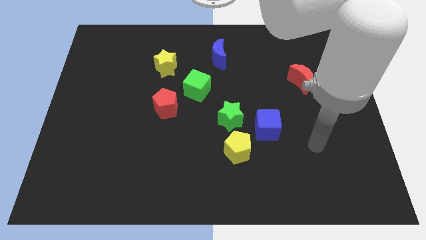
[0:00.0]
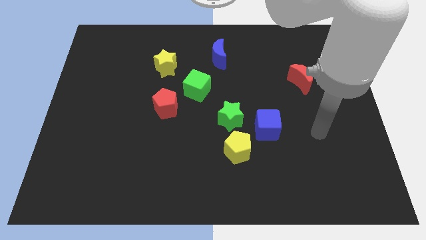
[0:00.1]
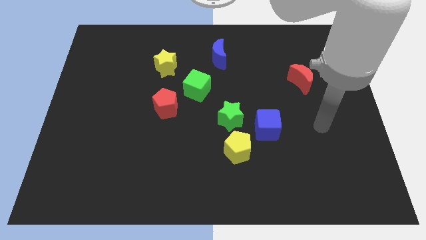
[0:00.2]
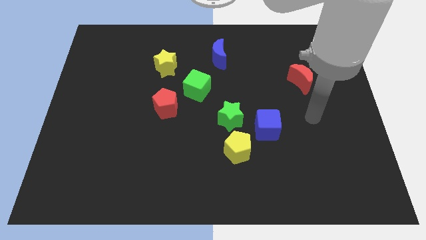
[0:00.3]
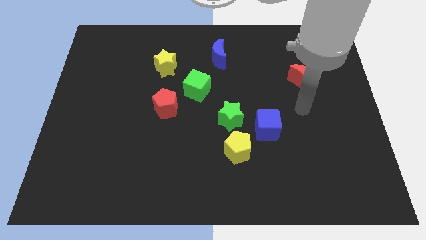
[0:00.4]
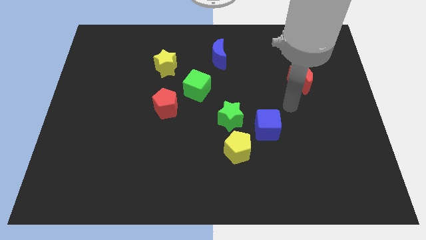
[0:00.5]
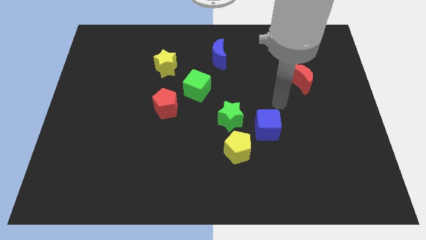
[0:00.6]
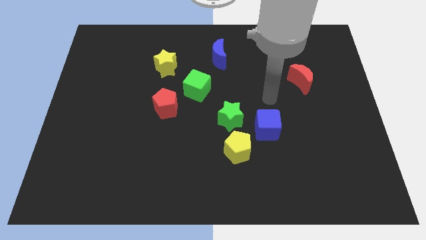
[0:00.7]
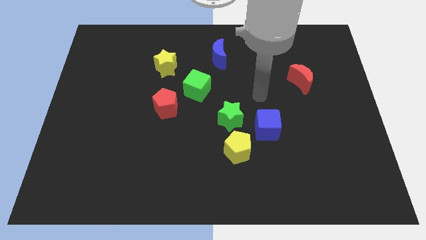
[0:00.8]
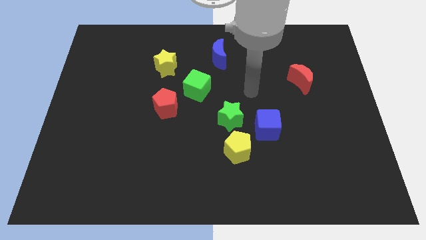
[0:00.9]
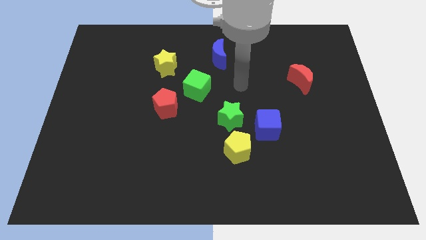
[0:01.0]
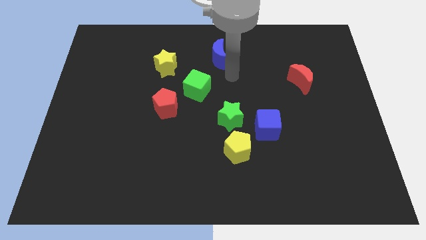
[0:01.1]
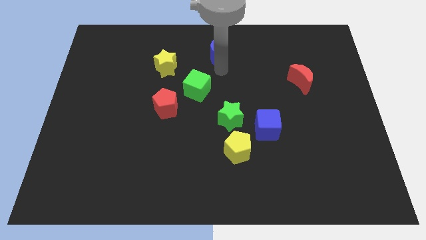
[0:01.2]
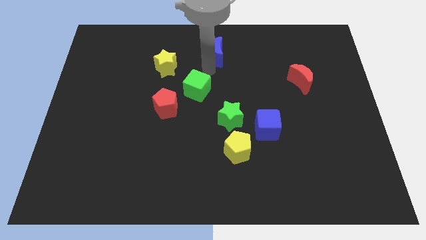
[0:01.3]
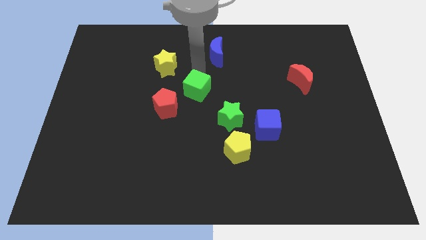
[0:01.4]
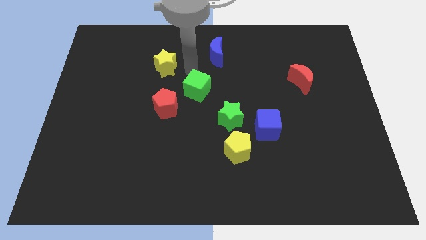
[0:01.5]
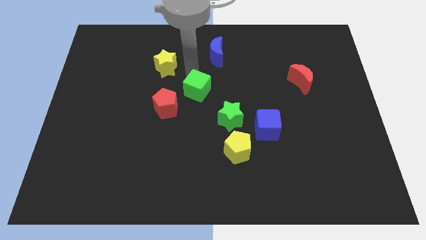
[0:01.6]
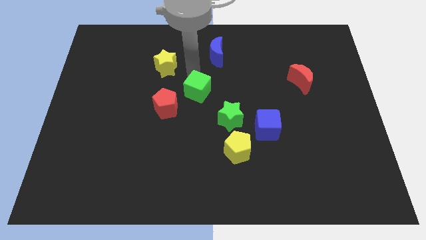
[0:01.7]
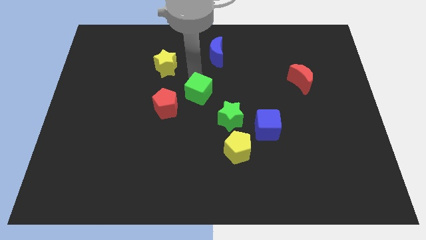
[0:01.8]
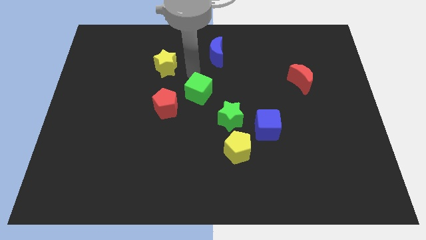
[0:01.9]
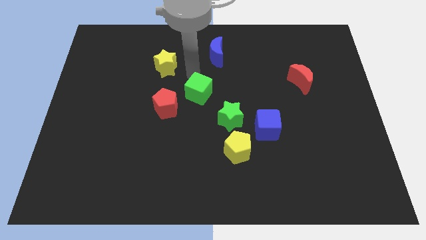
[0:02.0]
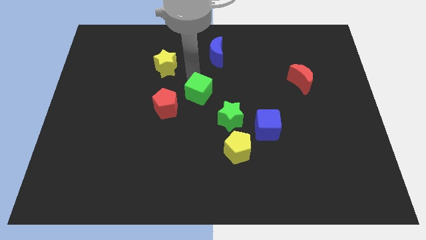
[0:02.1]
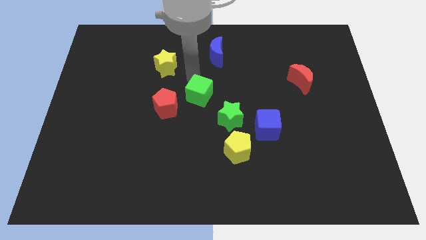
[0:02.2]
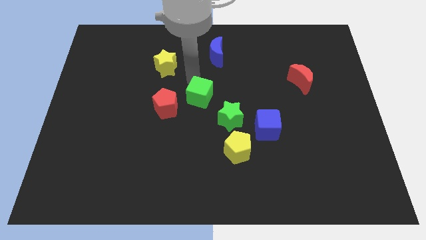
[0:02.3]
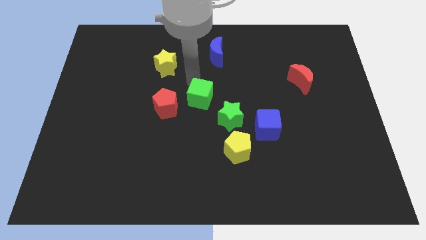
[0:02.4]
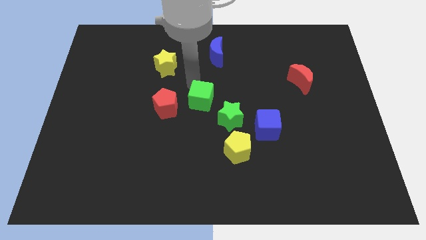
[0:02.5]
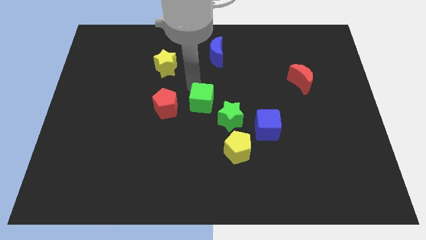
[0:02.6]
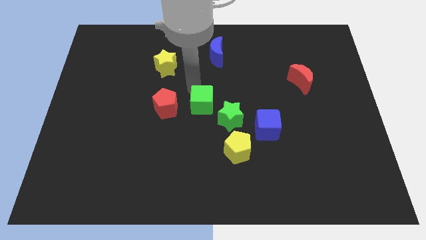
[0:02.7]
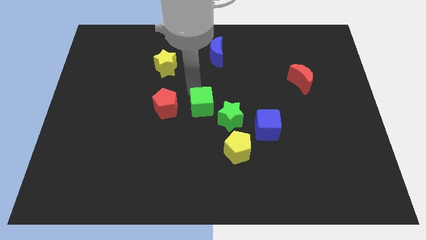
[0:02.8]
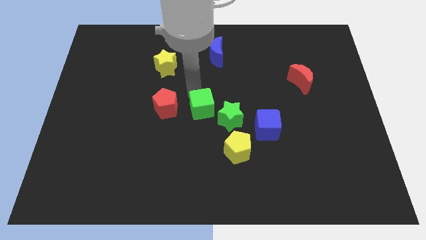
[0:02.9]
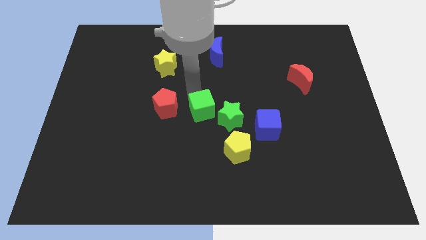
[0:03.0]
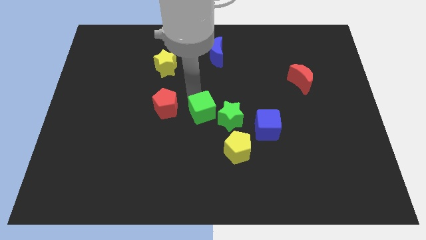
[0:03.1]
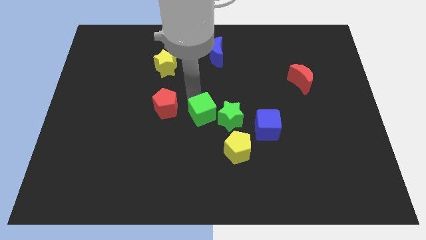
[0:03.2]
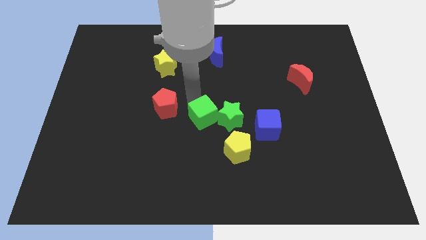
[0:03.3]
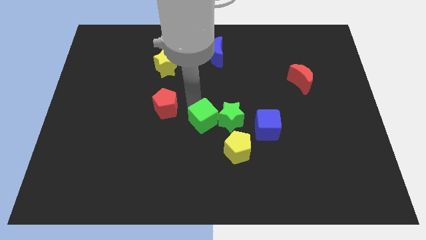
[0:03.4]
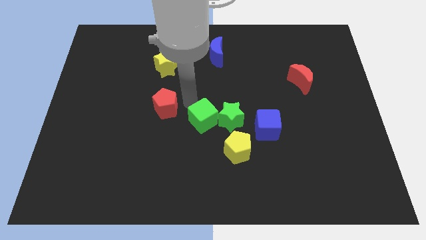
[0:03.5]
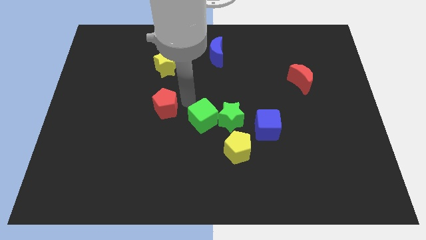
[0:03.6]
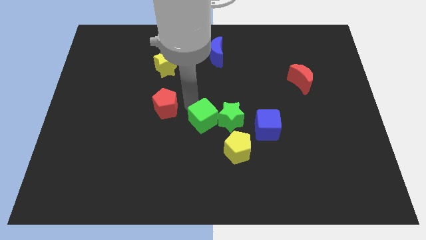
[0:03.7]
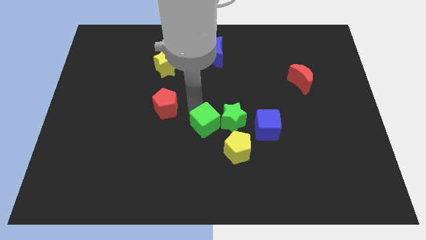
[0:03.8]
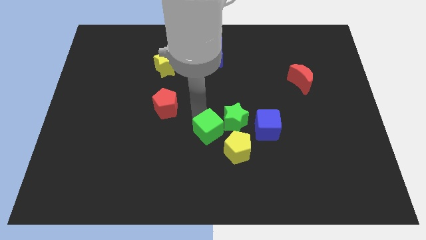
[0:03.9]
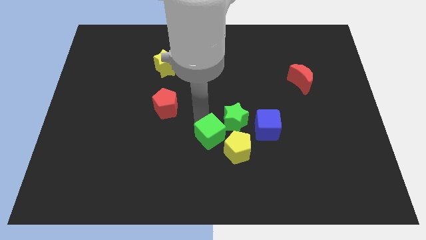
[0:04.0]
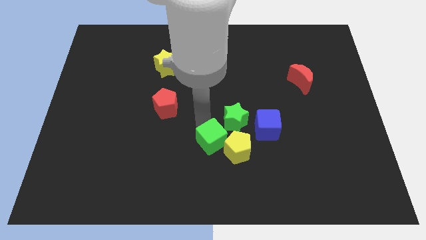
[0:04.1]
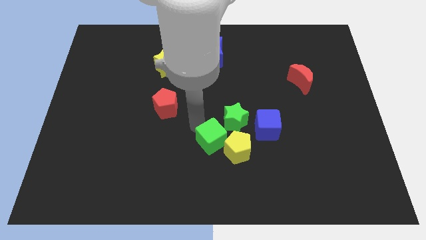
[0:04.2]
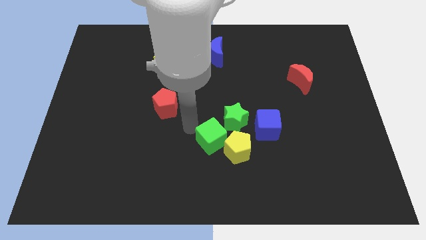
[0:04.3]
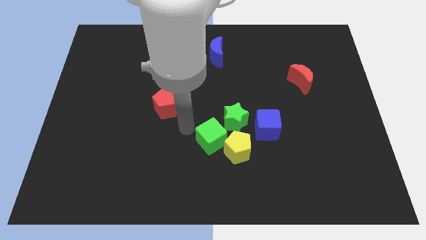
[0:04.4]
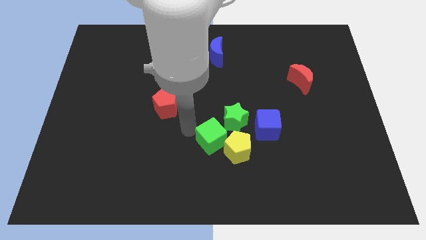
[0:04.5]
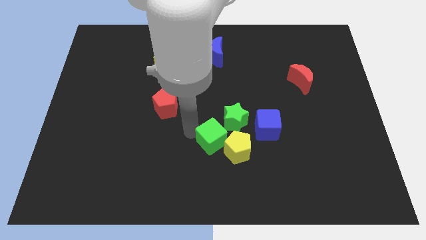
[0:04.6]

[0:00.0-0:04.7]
move the green cube to the yellow pentagon

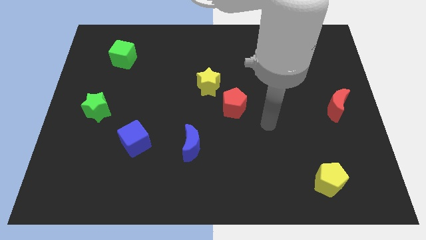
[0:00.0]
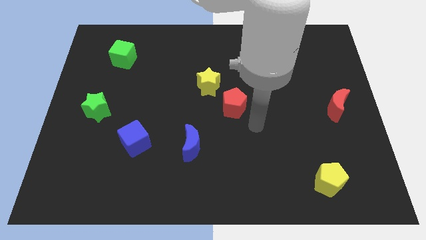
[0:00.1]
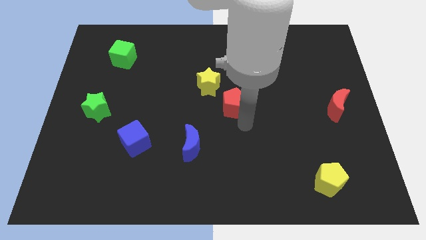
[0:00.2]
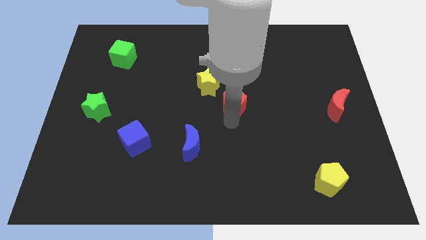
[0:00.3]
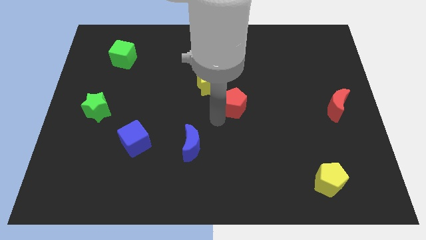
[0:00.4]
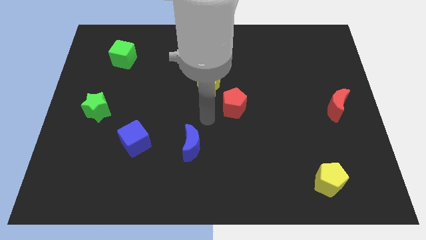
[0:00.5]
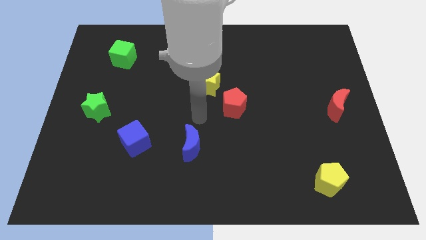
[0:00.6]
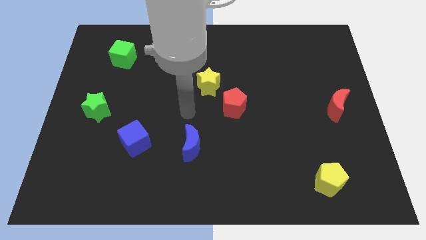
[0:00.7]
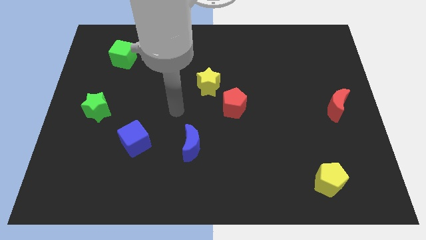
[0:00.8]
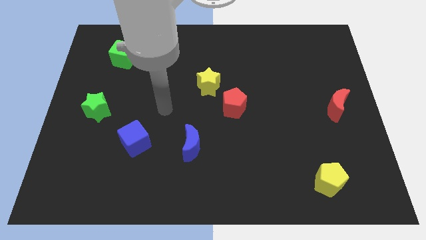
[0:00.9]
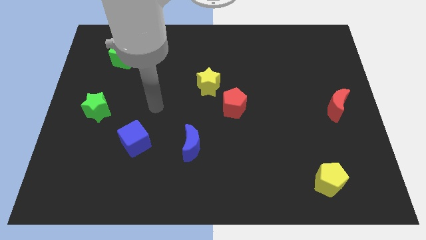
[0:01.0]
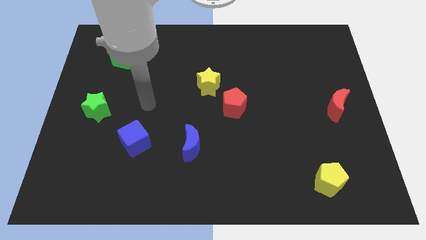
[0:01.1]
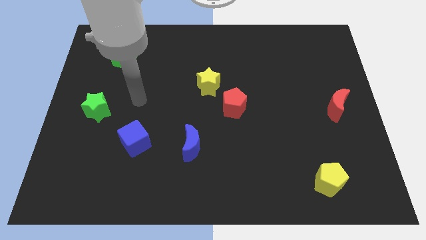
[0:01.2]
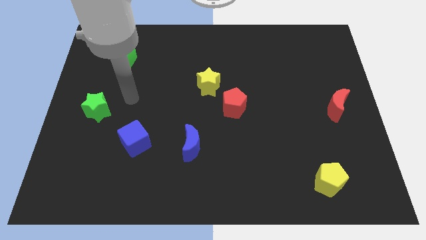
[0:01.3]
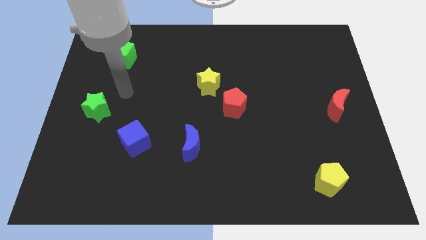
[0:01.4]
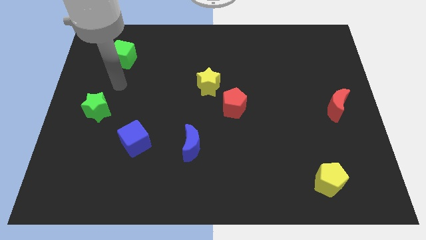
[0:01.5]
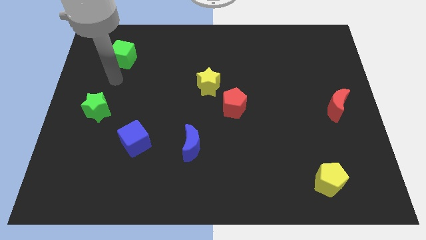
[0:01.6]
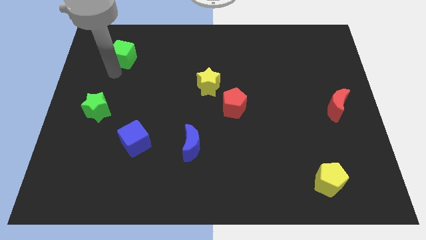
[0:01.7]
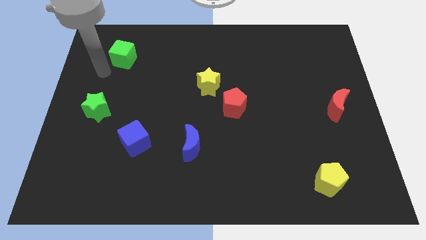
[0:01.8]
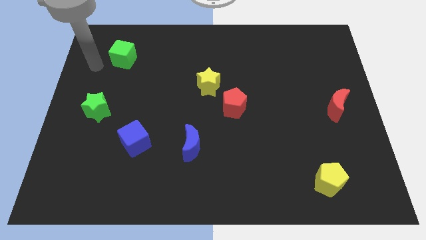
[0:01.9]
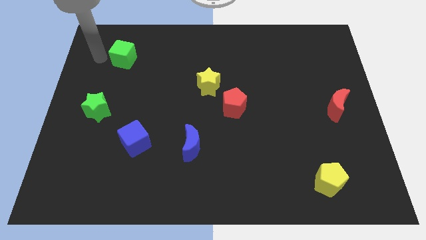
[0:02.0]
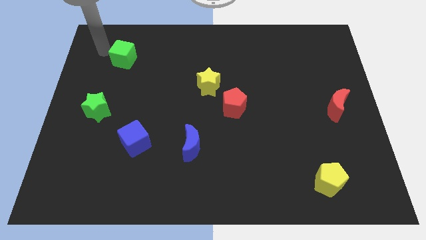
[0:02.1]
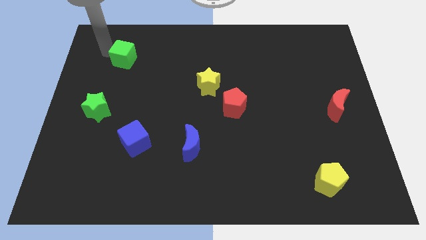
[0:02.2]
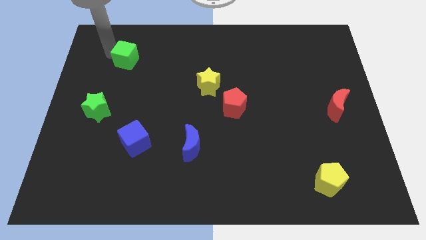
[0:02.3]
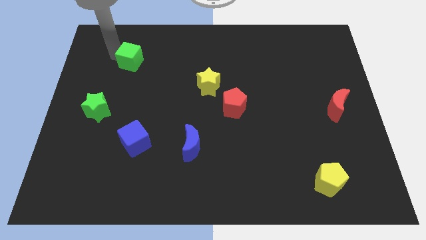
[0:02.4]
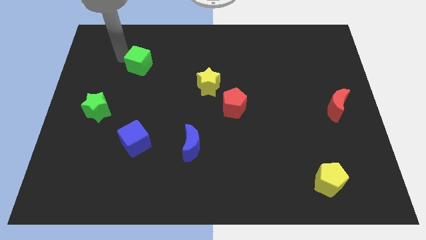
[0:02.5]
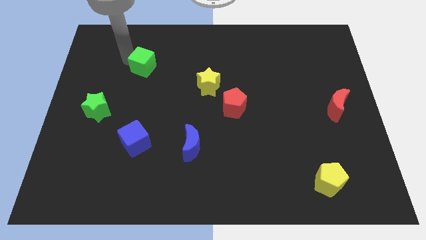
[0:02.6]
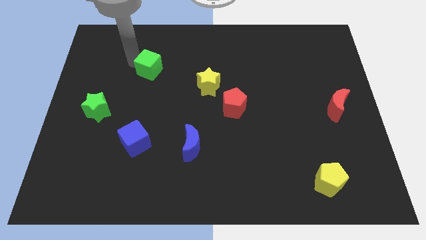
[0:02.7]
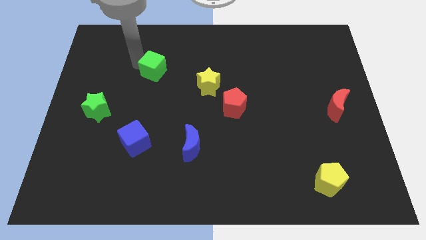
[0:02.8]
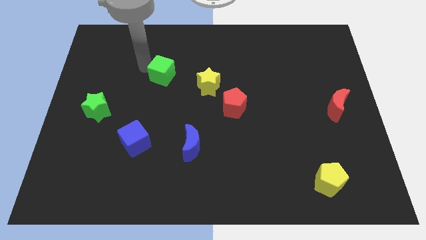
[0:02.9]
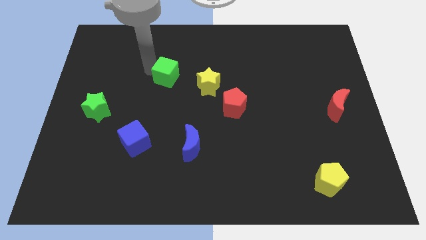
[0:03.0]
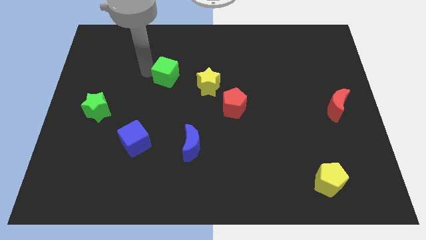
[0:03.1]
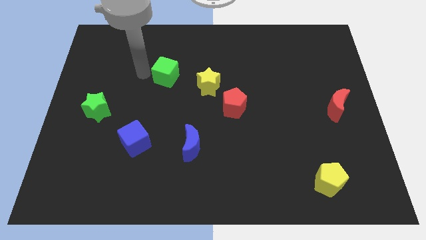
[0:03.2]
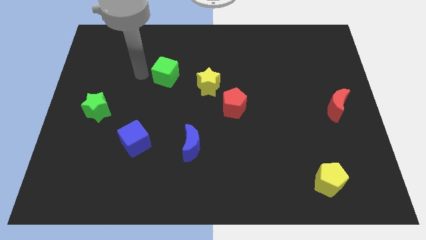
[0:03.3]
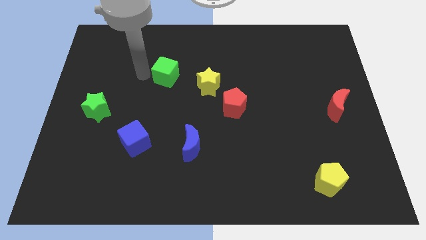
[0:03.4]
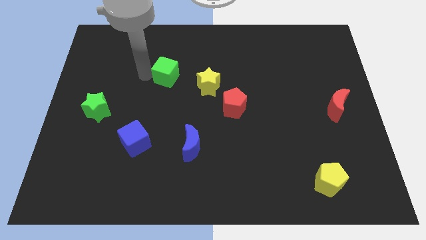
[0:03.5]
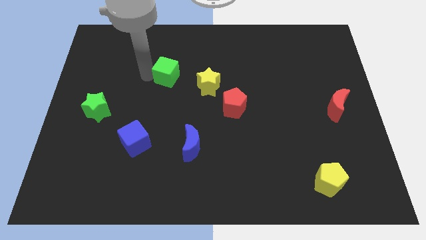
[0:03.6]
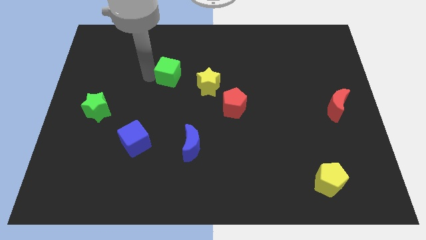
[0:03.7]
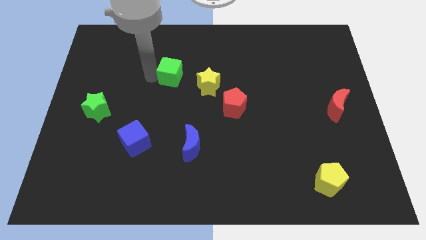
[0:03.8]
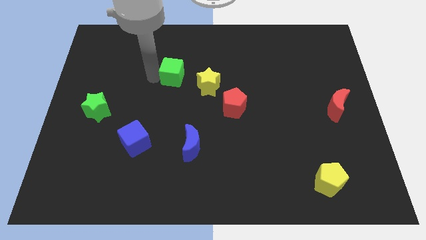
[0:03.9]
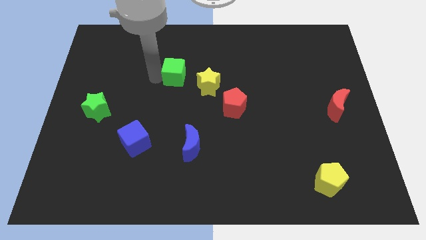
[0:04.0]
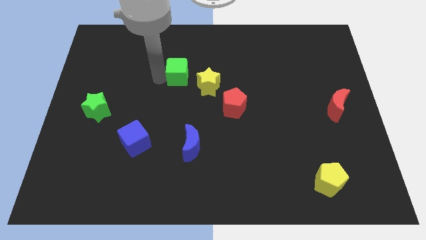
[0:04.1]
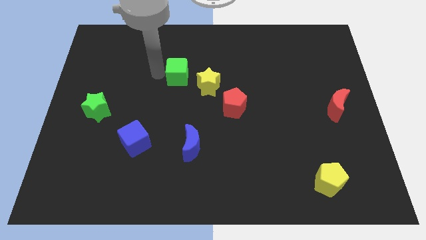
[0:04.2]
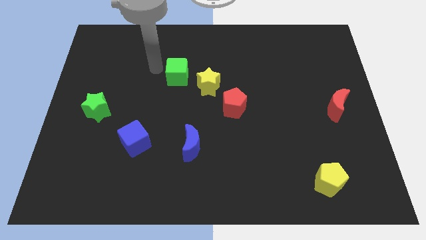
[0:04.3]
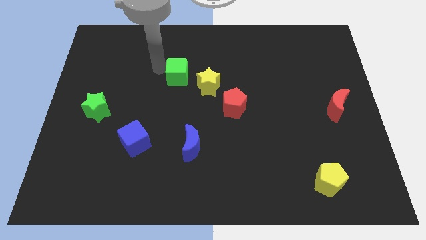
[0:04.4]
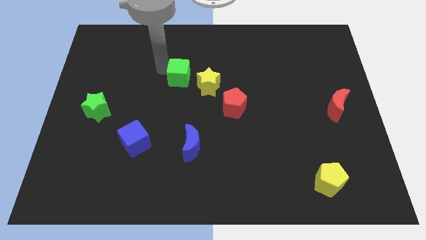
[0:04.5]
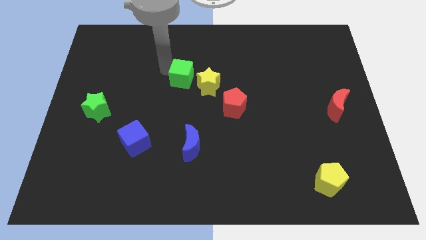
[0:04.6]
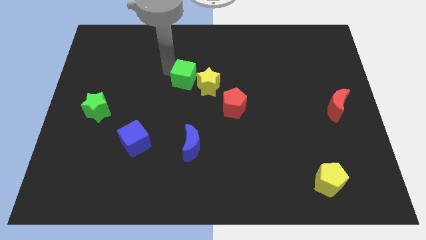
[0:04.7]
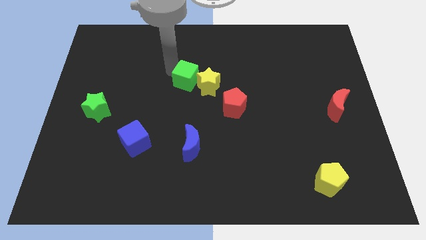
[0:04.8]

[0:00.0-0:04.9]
put the green cube close to the yellow star
